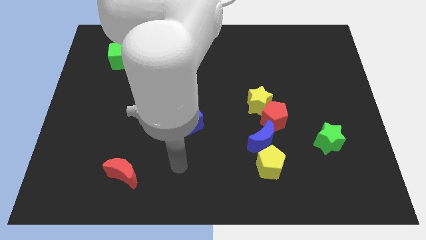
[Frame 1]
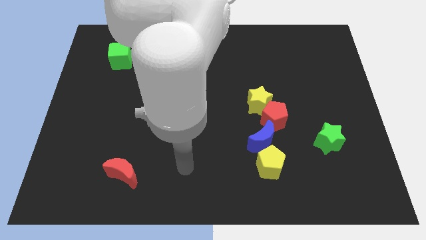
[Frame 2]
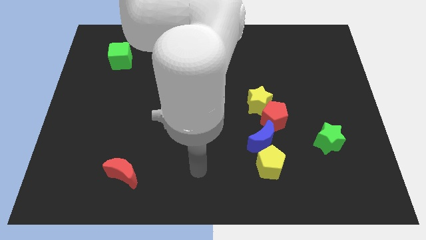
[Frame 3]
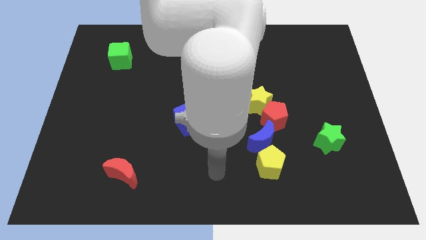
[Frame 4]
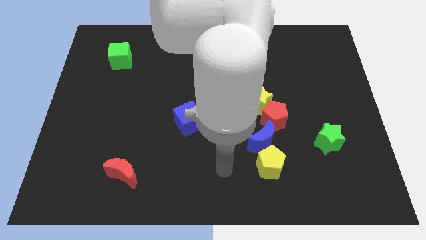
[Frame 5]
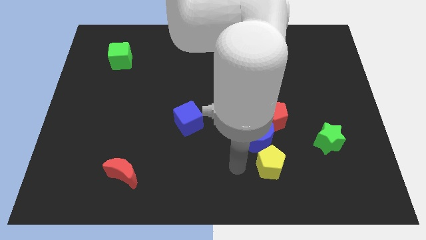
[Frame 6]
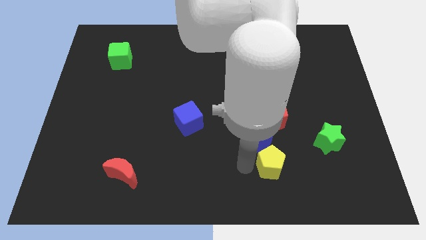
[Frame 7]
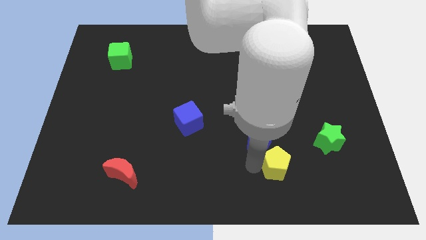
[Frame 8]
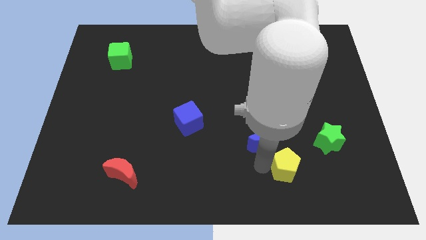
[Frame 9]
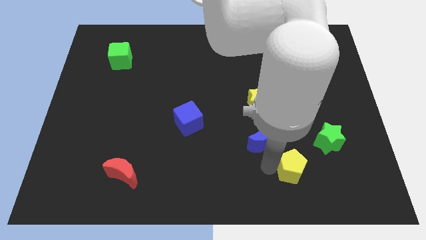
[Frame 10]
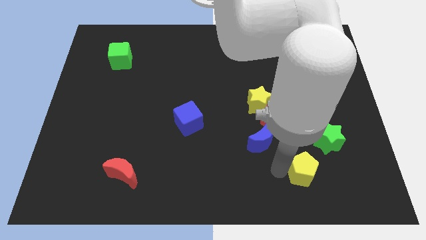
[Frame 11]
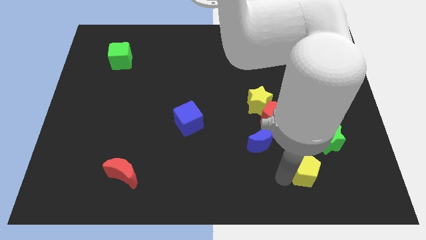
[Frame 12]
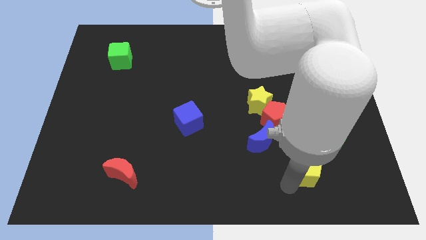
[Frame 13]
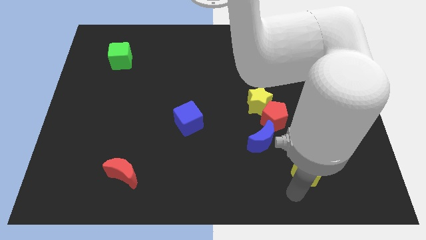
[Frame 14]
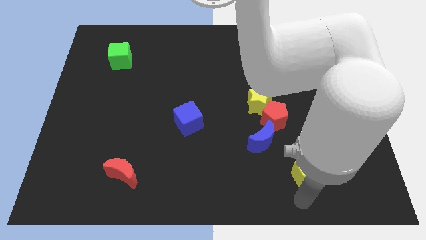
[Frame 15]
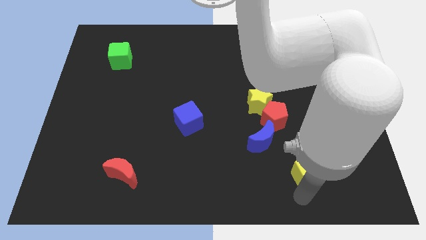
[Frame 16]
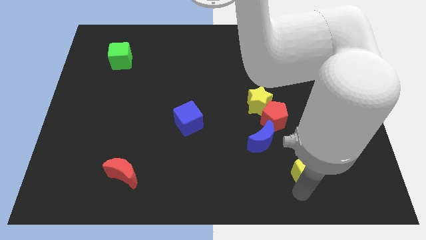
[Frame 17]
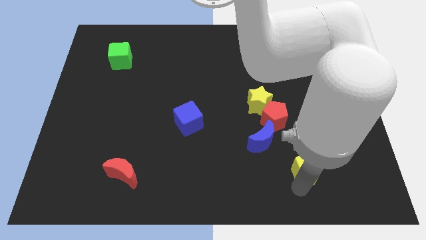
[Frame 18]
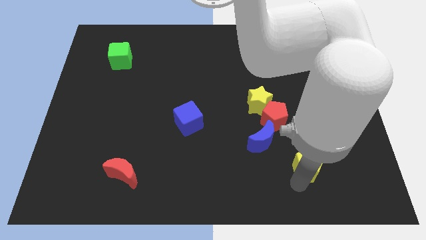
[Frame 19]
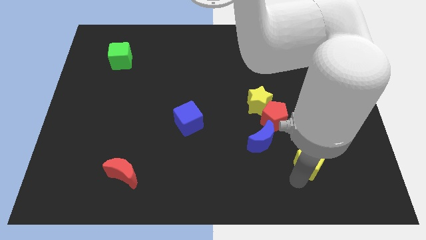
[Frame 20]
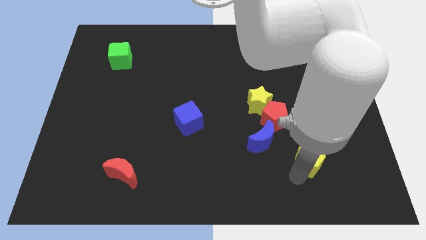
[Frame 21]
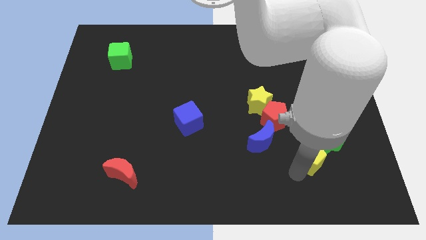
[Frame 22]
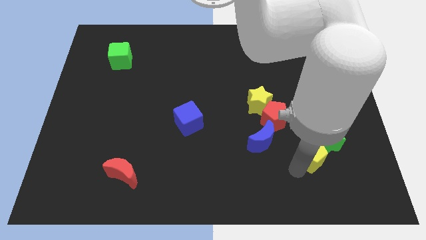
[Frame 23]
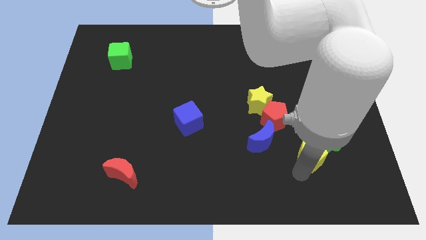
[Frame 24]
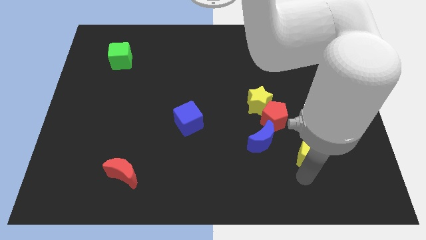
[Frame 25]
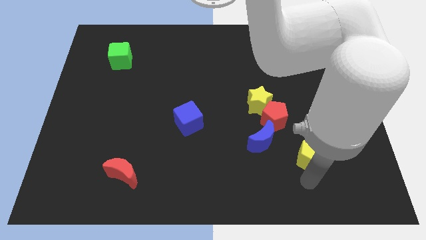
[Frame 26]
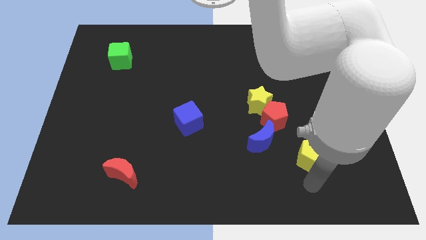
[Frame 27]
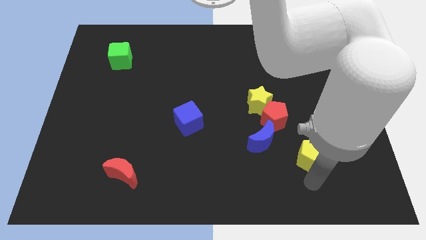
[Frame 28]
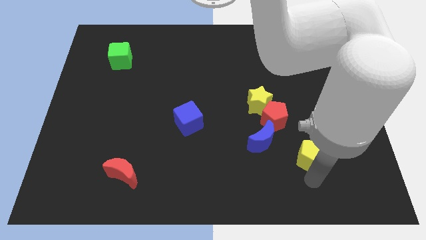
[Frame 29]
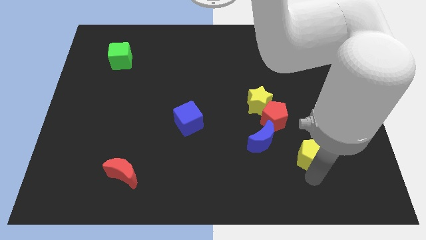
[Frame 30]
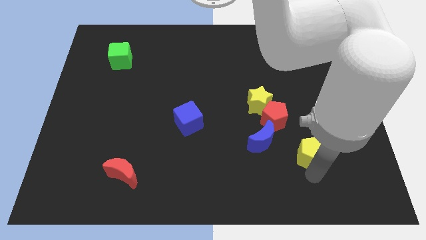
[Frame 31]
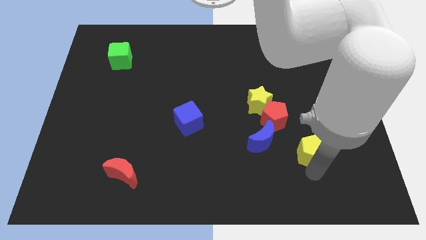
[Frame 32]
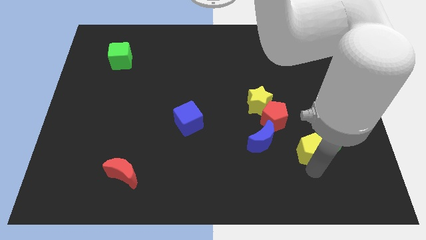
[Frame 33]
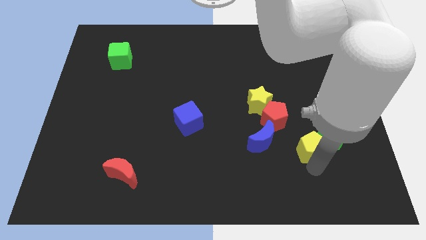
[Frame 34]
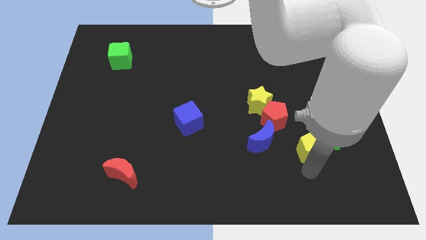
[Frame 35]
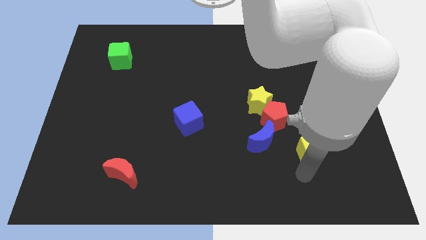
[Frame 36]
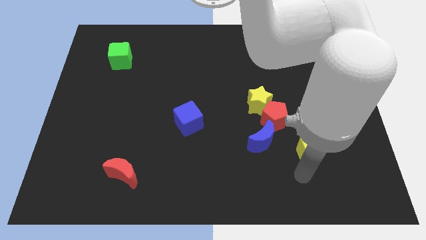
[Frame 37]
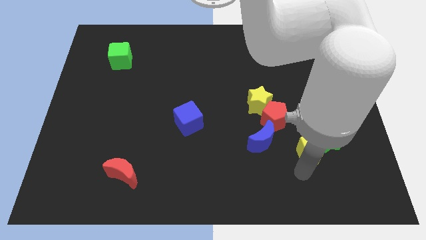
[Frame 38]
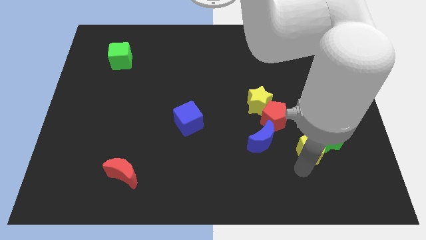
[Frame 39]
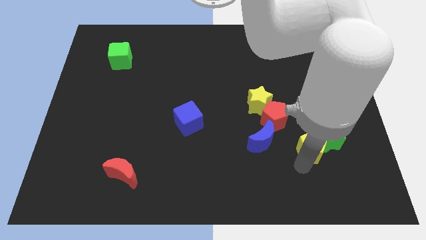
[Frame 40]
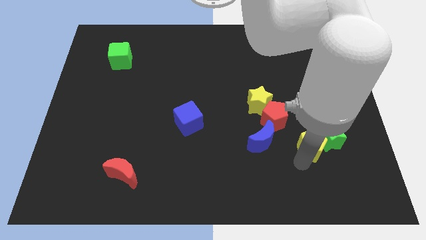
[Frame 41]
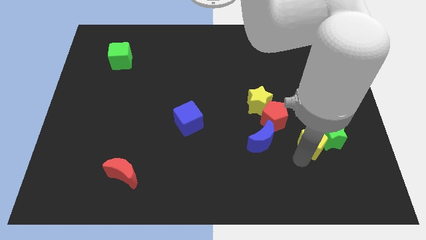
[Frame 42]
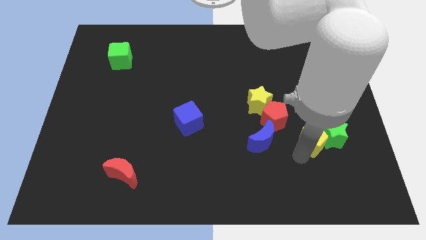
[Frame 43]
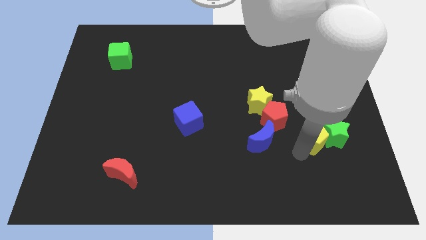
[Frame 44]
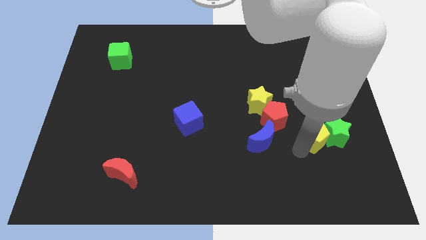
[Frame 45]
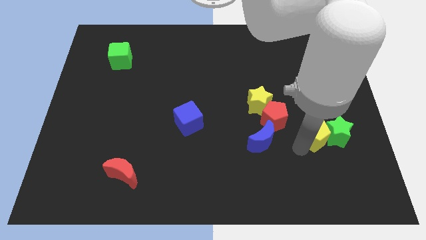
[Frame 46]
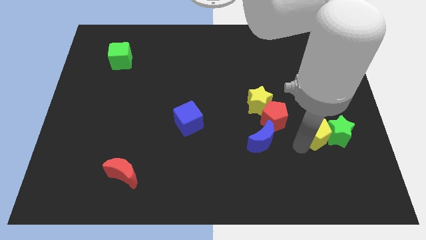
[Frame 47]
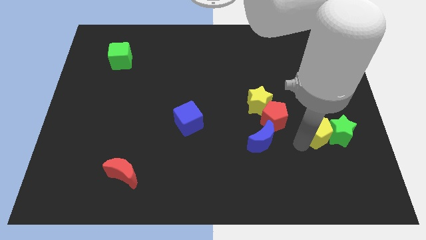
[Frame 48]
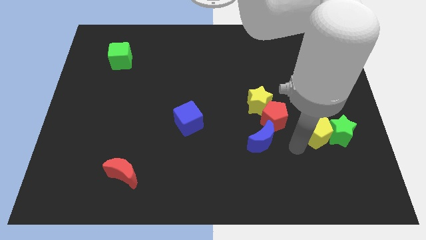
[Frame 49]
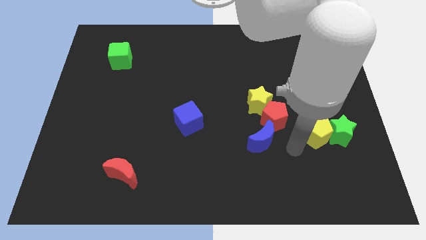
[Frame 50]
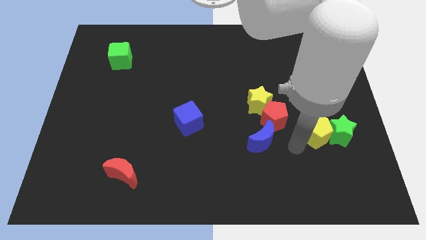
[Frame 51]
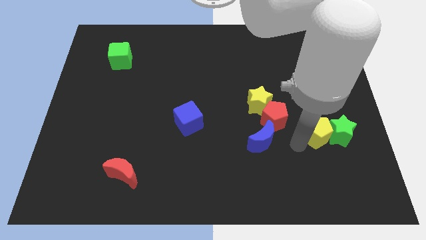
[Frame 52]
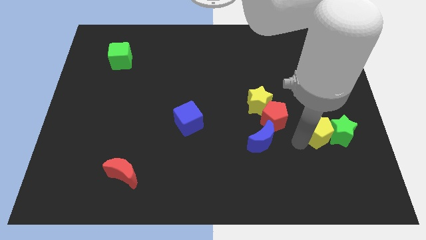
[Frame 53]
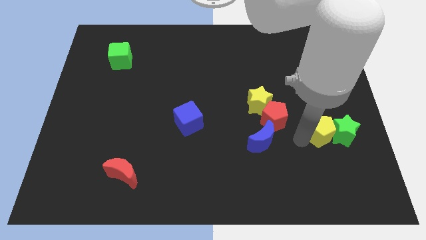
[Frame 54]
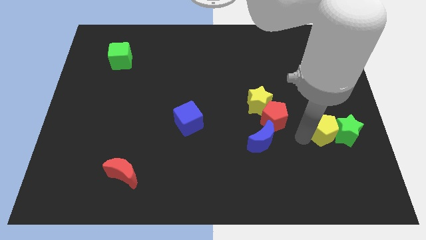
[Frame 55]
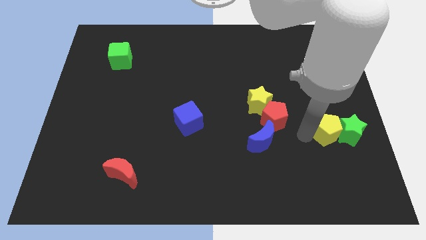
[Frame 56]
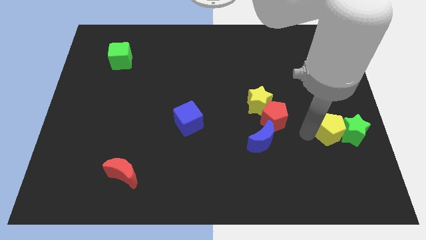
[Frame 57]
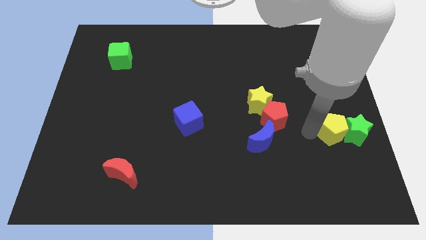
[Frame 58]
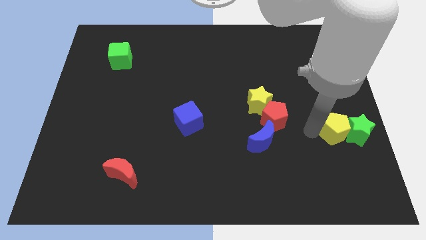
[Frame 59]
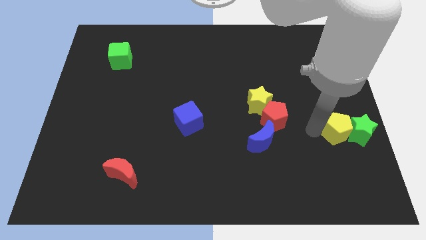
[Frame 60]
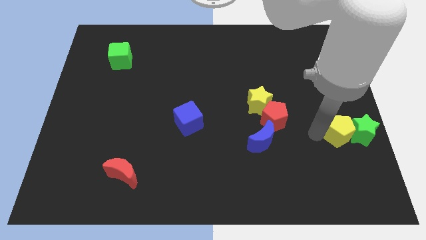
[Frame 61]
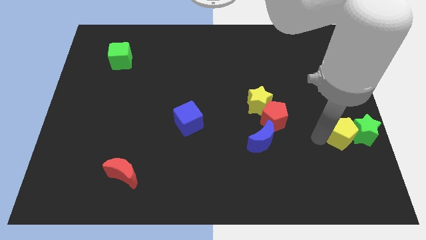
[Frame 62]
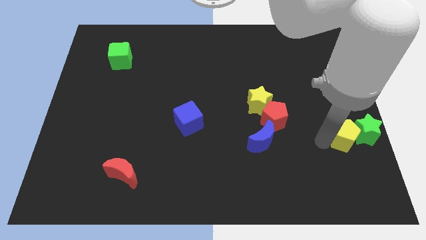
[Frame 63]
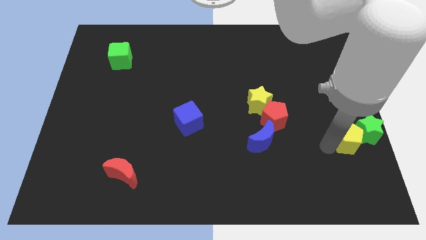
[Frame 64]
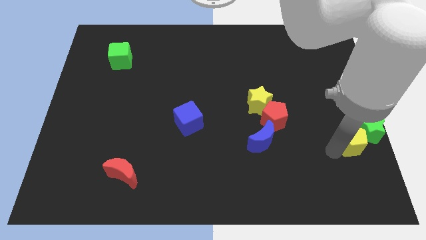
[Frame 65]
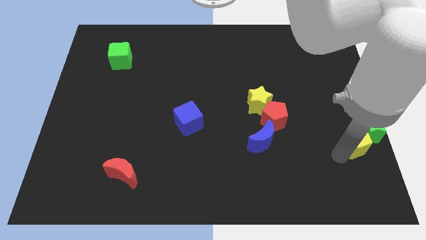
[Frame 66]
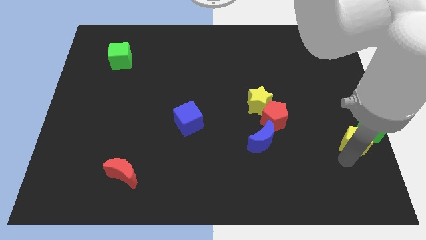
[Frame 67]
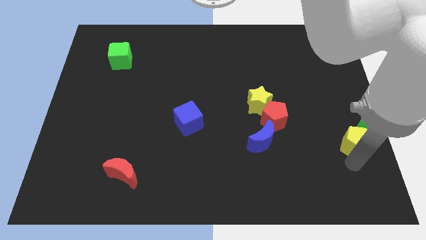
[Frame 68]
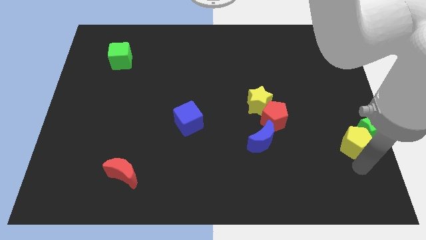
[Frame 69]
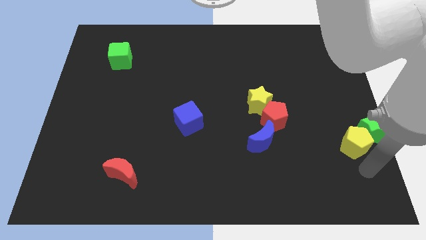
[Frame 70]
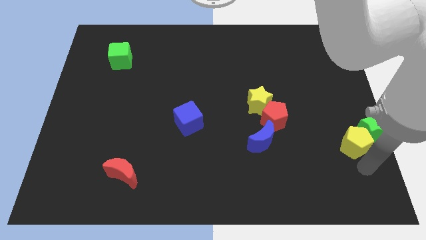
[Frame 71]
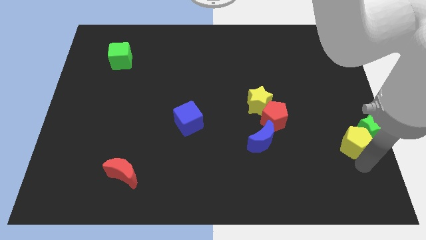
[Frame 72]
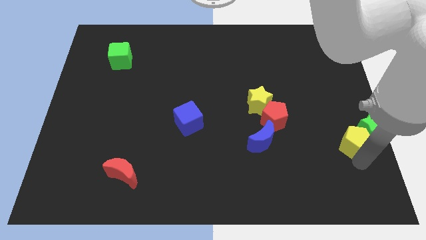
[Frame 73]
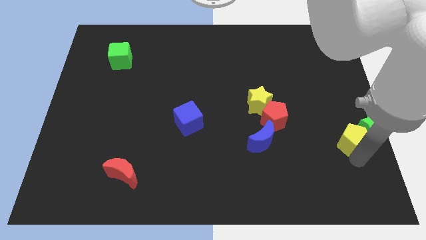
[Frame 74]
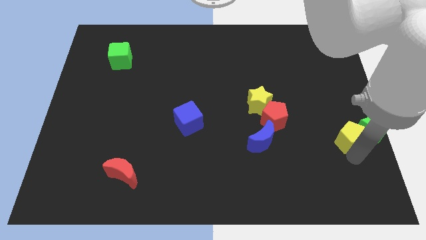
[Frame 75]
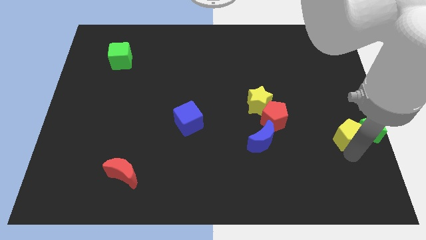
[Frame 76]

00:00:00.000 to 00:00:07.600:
move the yellow pentagon to the right side
